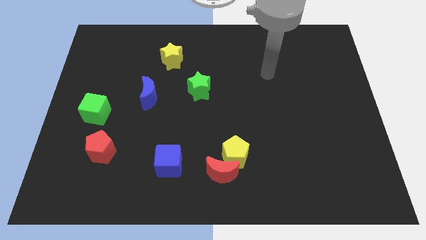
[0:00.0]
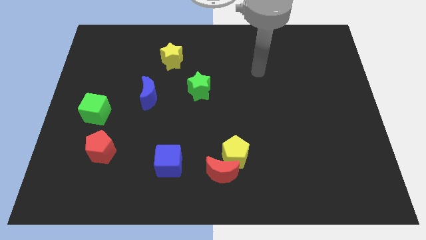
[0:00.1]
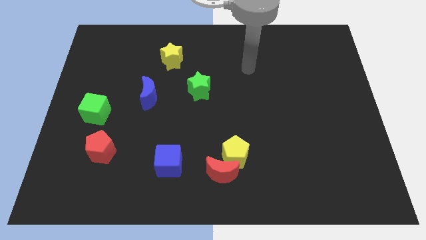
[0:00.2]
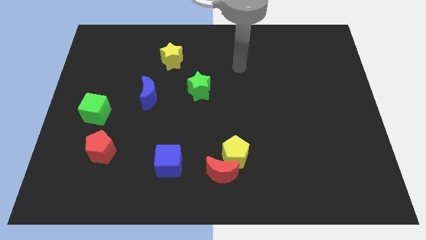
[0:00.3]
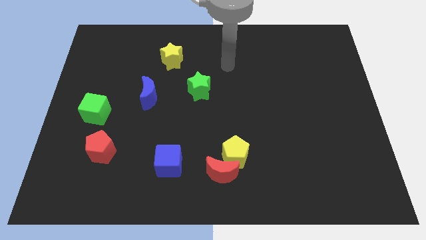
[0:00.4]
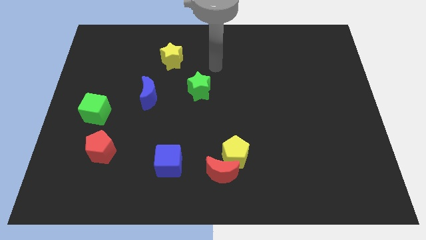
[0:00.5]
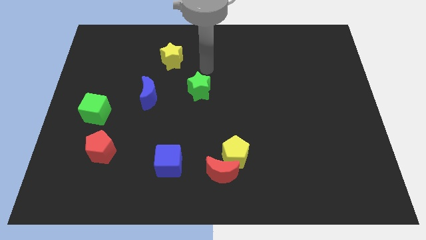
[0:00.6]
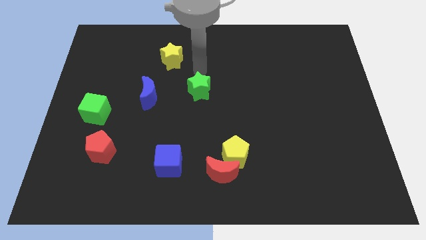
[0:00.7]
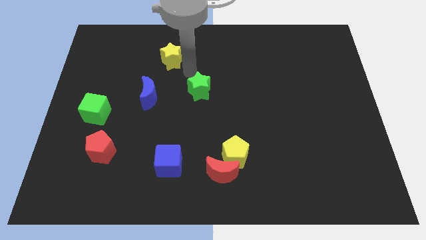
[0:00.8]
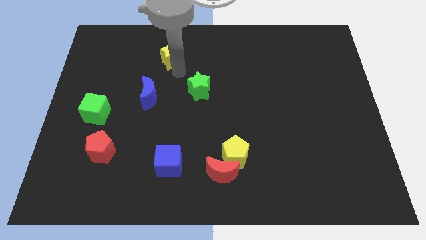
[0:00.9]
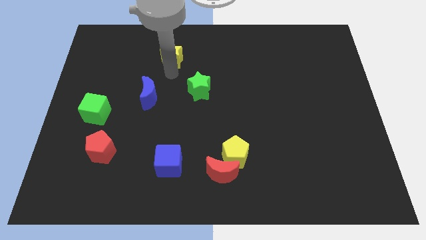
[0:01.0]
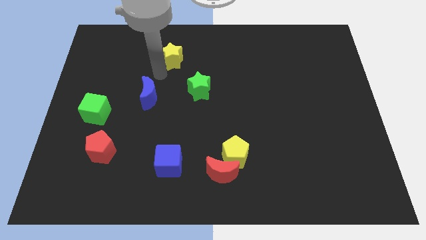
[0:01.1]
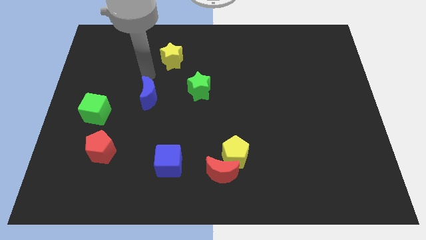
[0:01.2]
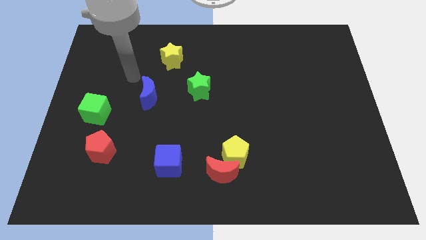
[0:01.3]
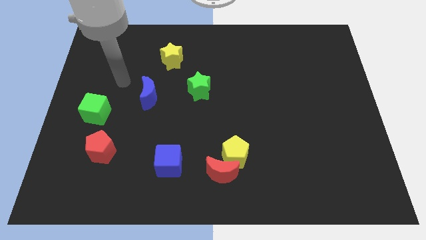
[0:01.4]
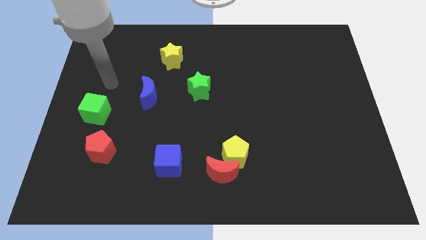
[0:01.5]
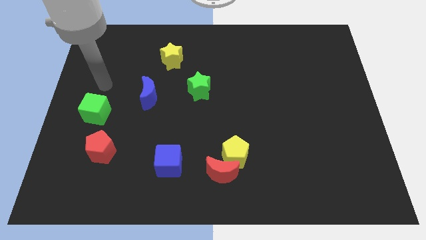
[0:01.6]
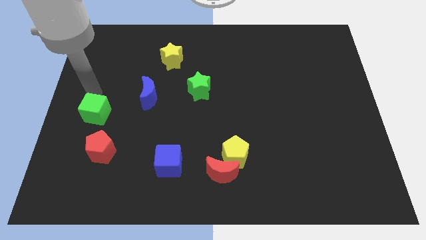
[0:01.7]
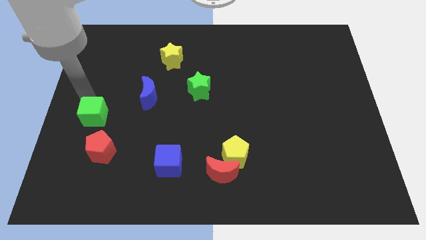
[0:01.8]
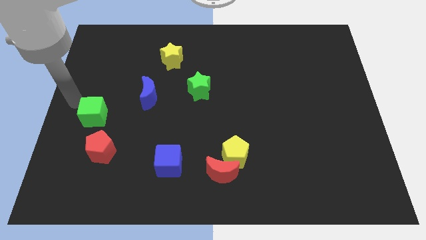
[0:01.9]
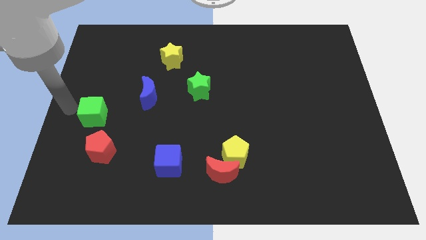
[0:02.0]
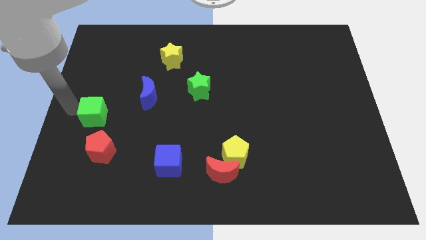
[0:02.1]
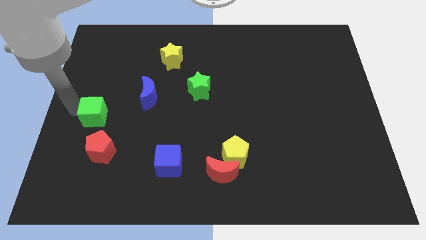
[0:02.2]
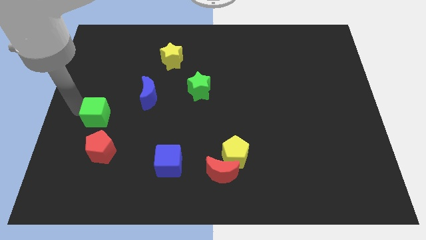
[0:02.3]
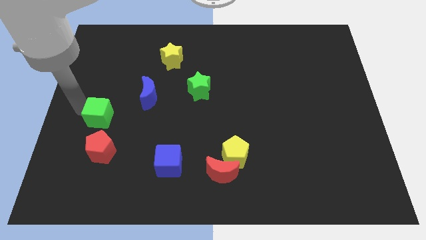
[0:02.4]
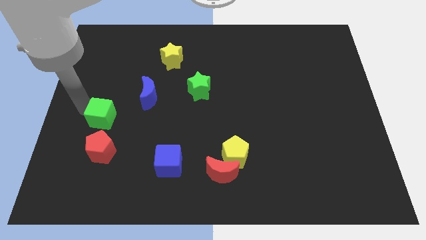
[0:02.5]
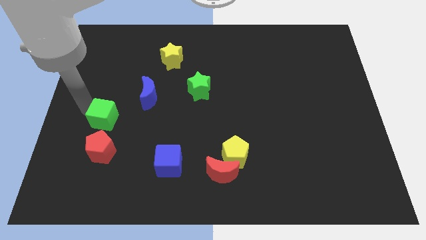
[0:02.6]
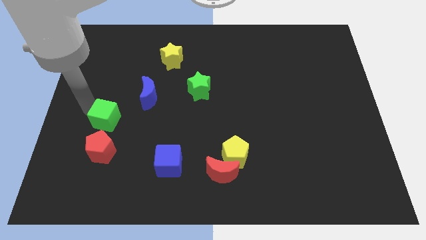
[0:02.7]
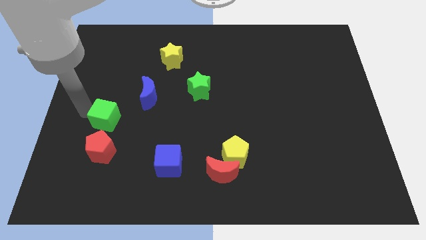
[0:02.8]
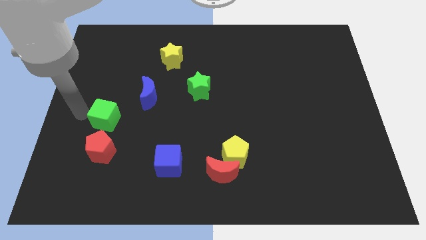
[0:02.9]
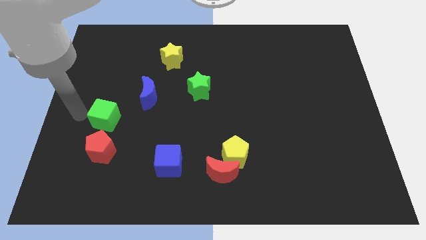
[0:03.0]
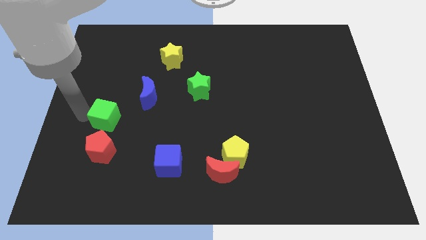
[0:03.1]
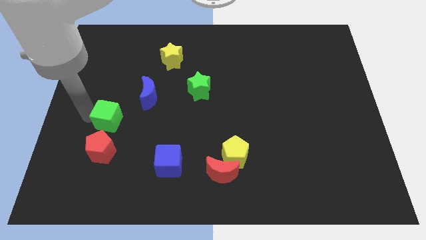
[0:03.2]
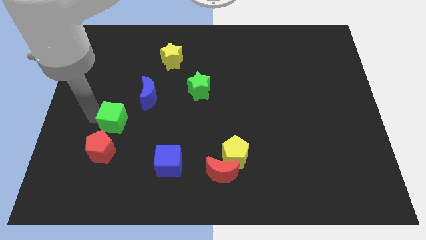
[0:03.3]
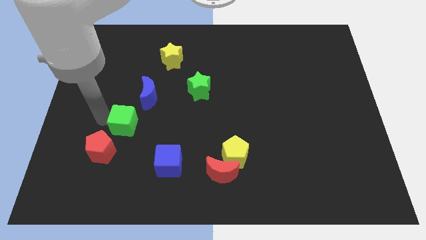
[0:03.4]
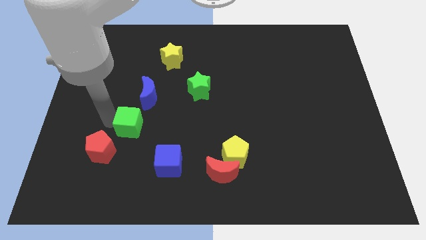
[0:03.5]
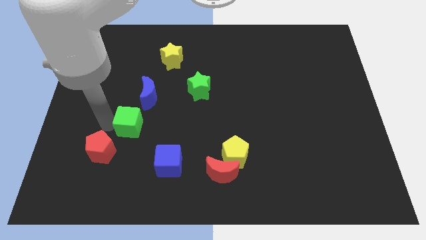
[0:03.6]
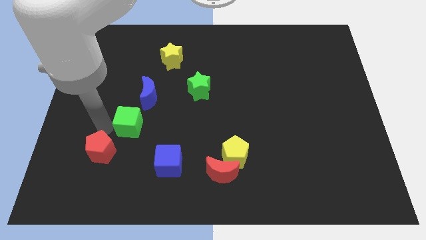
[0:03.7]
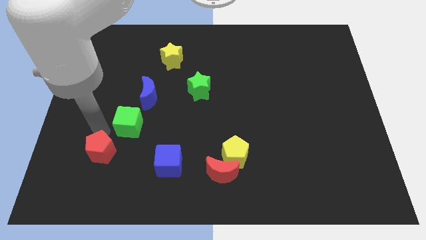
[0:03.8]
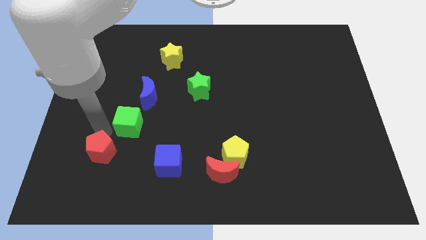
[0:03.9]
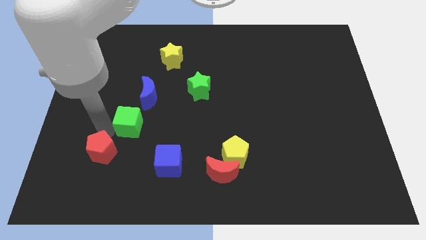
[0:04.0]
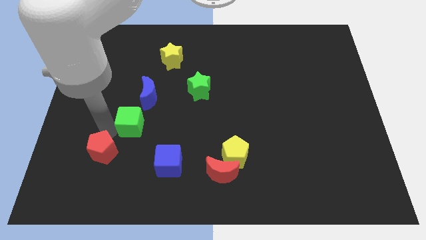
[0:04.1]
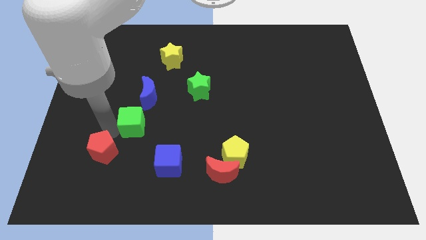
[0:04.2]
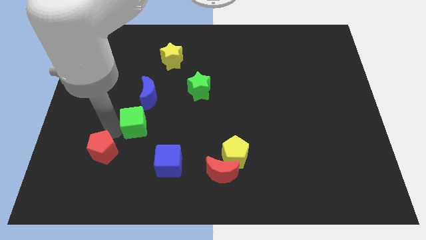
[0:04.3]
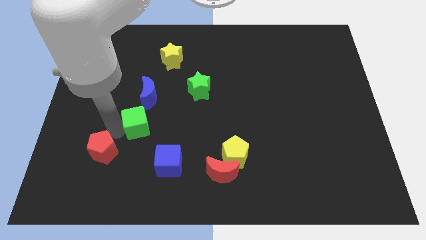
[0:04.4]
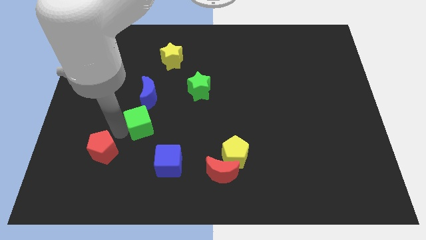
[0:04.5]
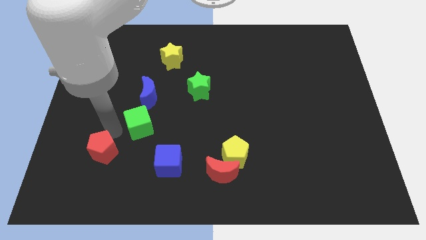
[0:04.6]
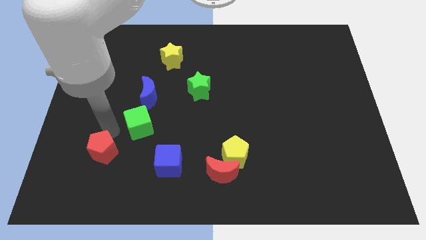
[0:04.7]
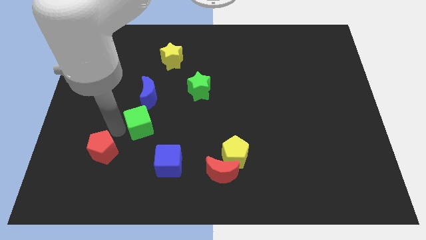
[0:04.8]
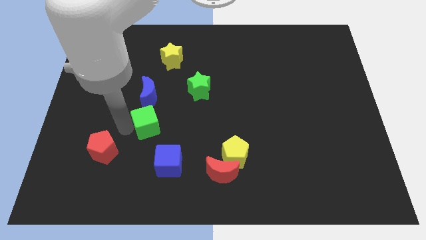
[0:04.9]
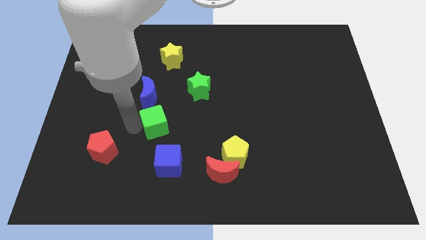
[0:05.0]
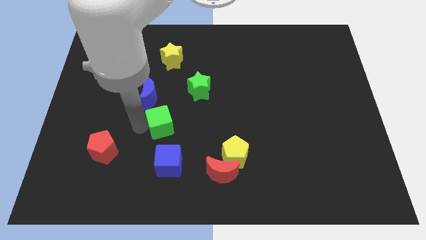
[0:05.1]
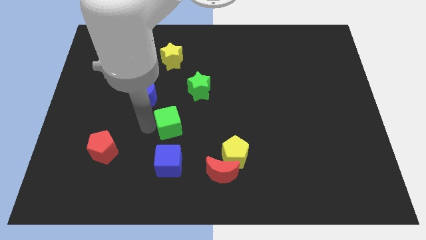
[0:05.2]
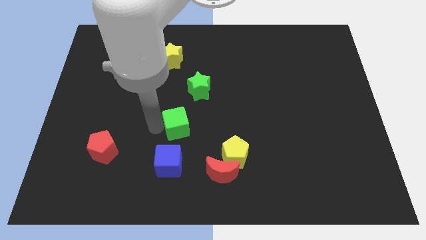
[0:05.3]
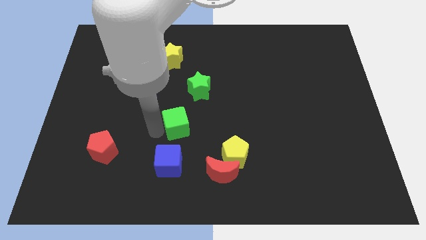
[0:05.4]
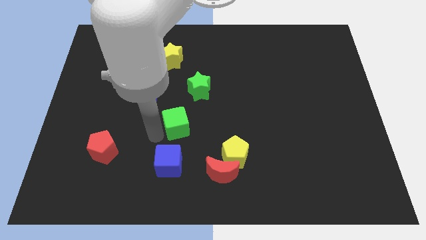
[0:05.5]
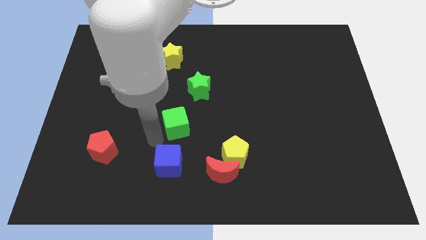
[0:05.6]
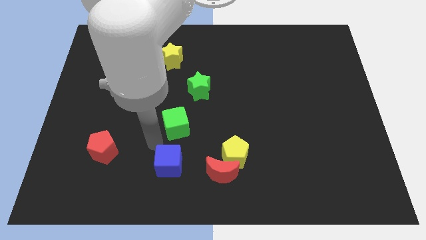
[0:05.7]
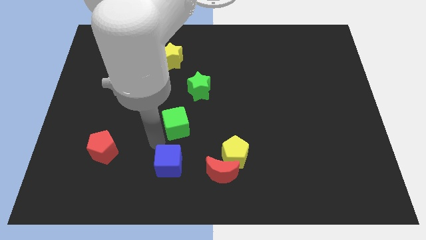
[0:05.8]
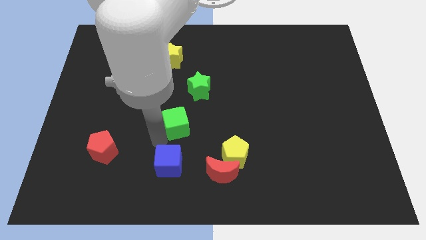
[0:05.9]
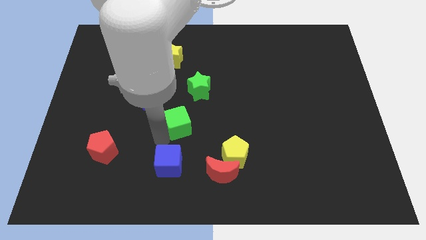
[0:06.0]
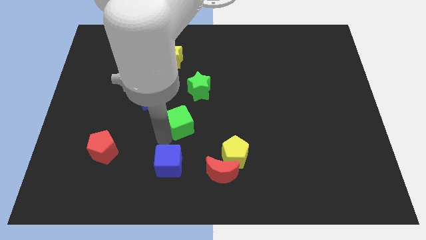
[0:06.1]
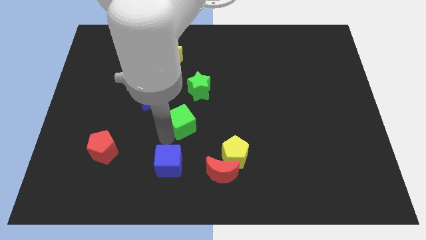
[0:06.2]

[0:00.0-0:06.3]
slide the green cube to the right

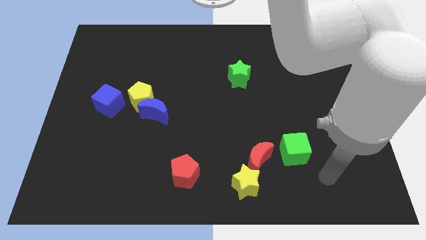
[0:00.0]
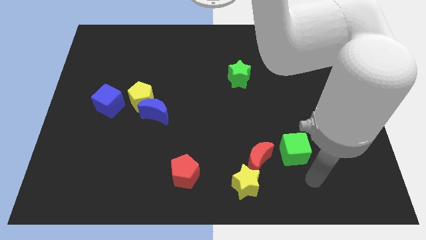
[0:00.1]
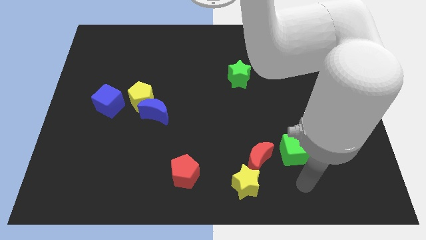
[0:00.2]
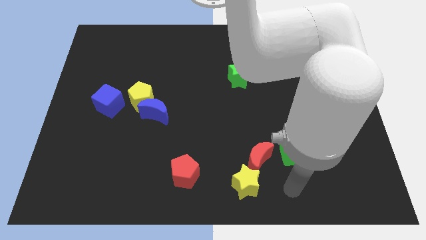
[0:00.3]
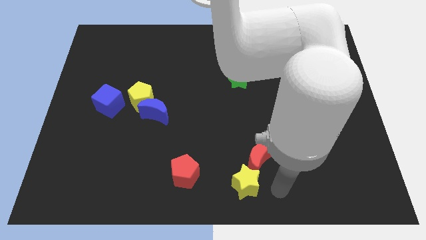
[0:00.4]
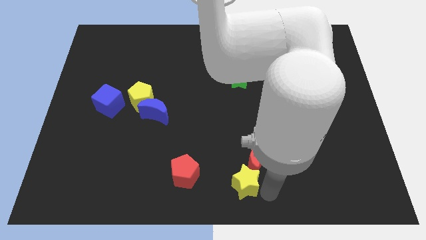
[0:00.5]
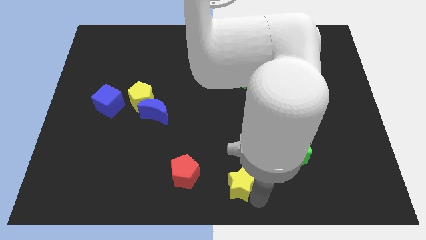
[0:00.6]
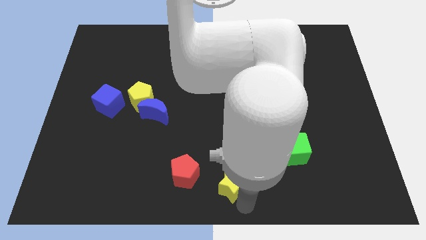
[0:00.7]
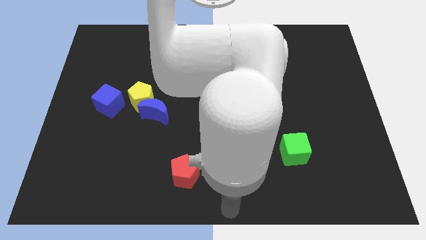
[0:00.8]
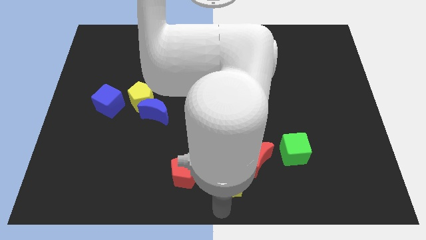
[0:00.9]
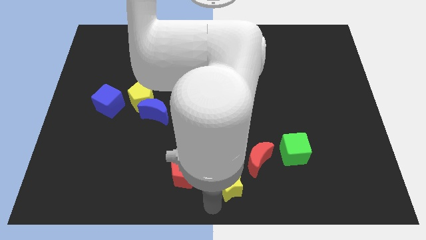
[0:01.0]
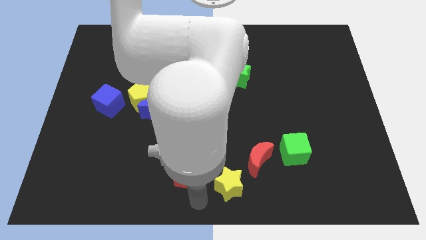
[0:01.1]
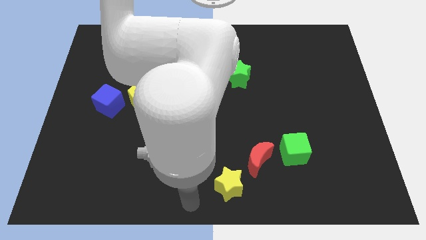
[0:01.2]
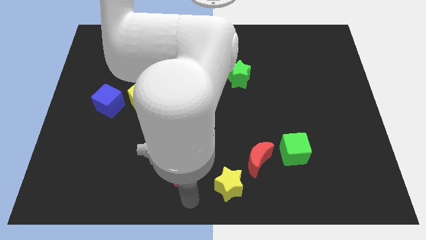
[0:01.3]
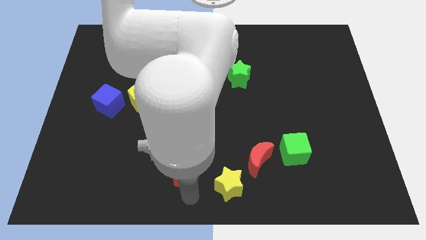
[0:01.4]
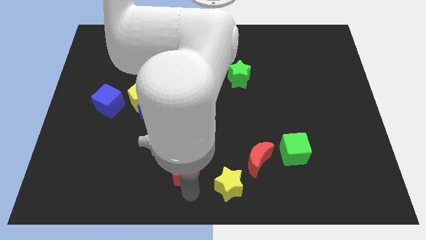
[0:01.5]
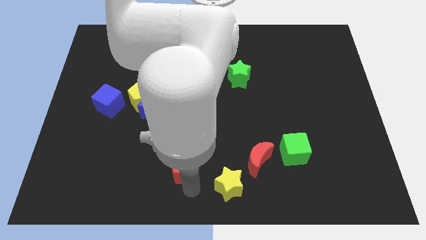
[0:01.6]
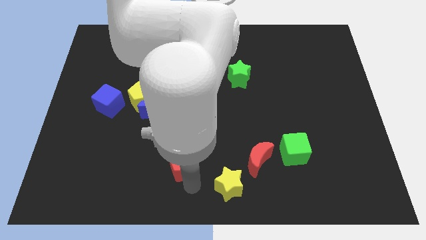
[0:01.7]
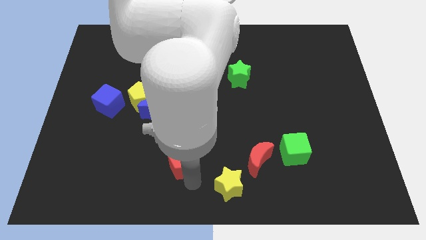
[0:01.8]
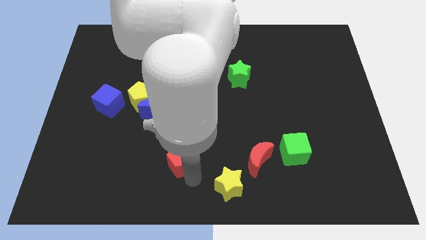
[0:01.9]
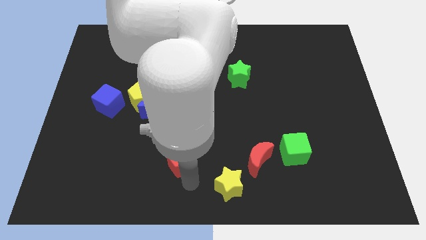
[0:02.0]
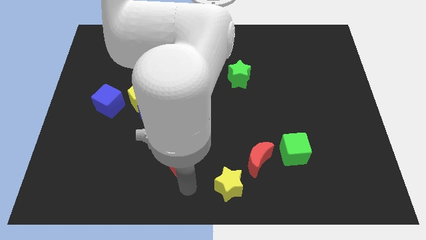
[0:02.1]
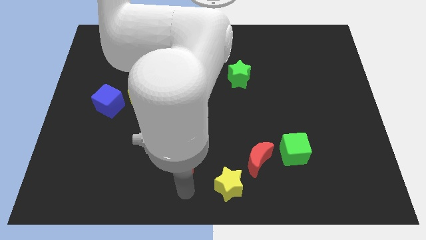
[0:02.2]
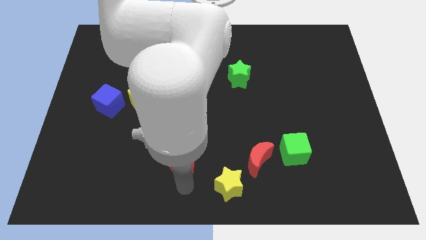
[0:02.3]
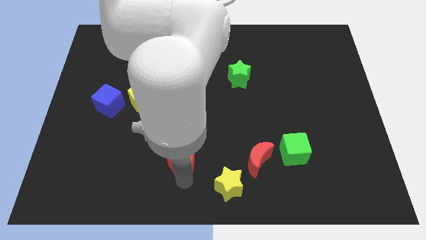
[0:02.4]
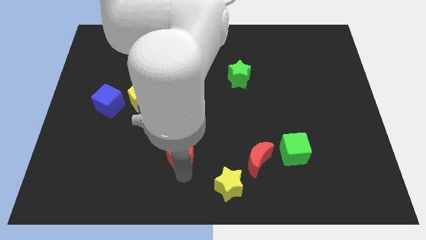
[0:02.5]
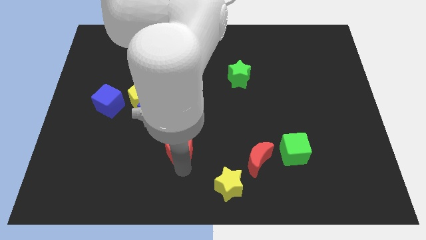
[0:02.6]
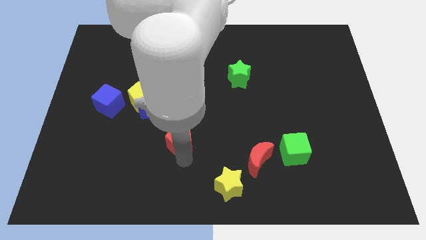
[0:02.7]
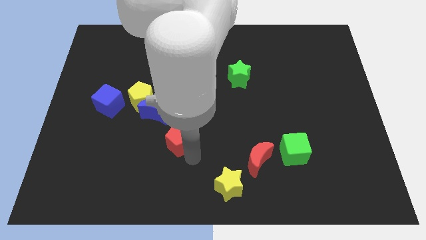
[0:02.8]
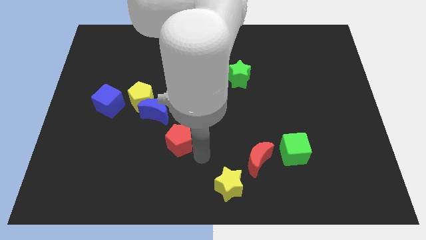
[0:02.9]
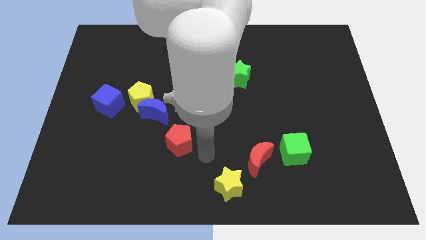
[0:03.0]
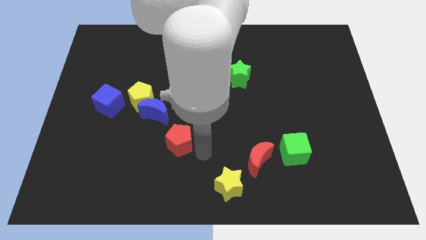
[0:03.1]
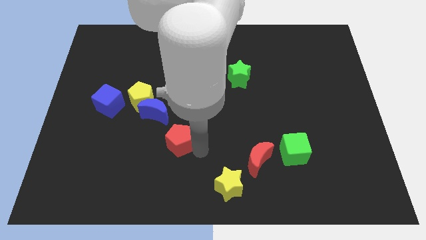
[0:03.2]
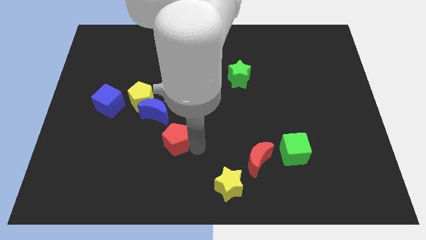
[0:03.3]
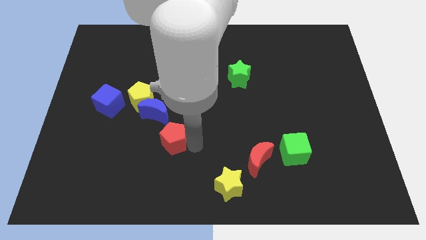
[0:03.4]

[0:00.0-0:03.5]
push the red pentagon a little upwards and left diagonally
